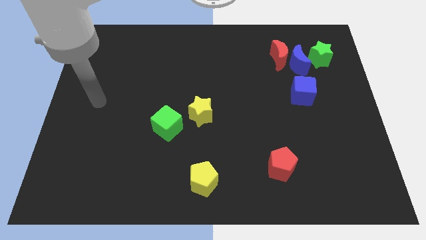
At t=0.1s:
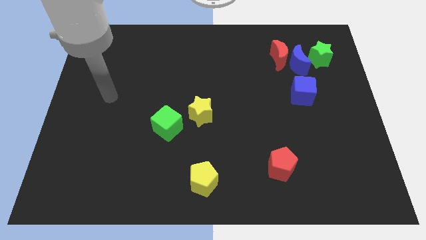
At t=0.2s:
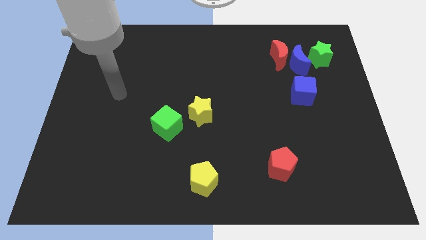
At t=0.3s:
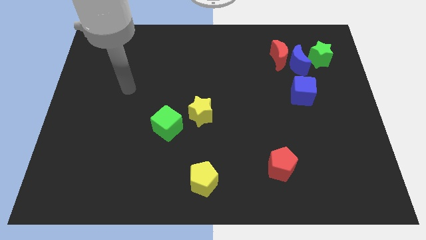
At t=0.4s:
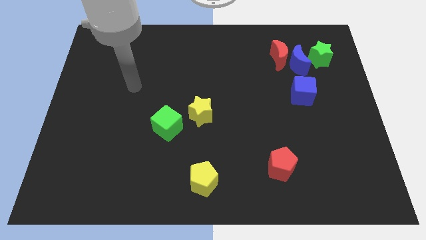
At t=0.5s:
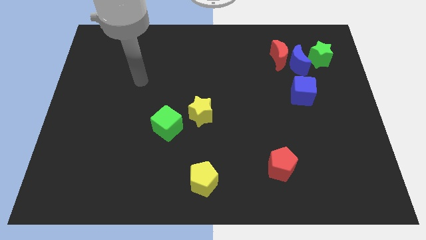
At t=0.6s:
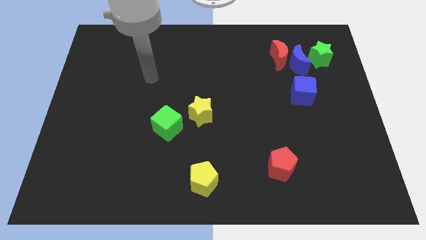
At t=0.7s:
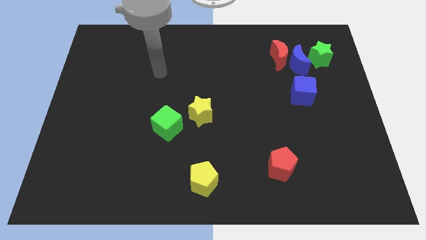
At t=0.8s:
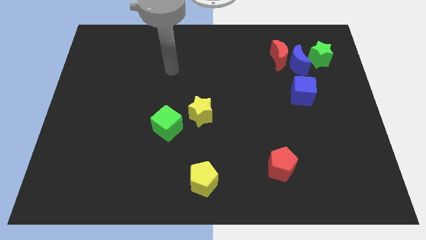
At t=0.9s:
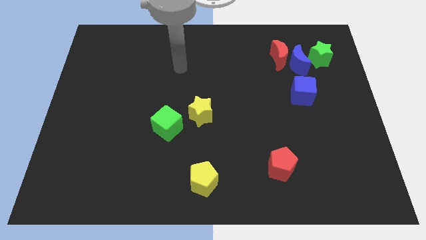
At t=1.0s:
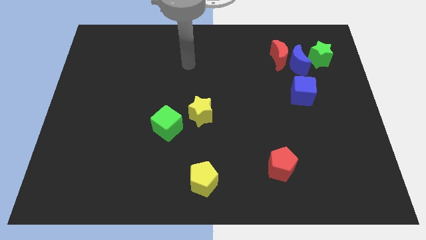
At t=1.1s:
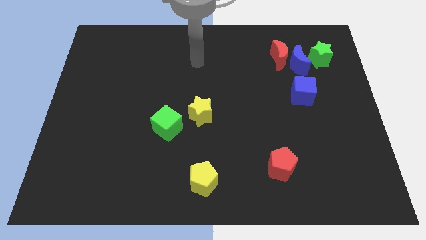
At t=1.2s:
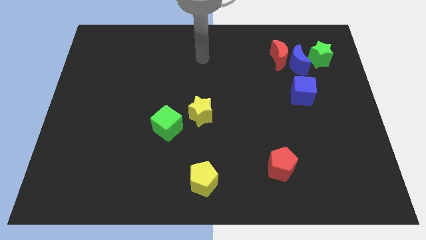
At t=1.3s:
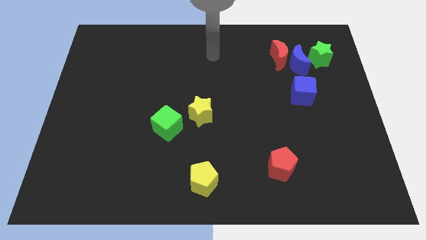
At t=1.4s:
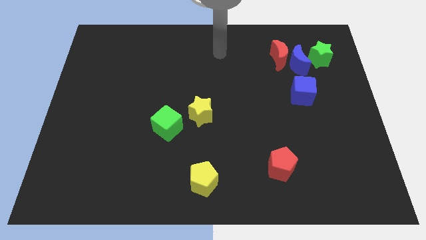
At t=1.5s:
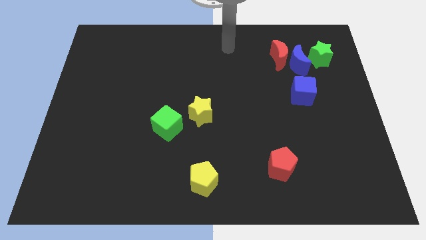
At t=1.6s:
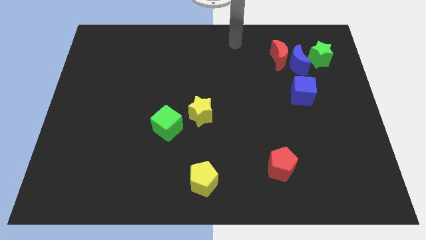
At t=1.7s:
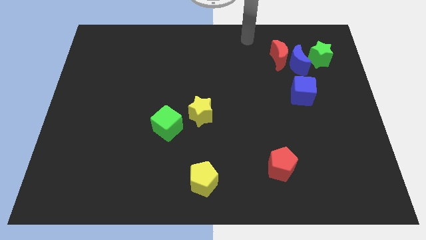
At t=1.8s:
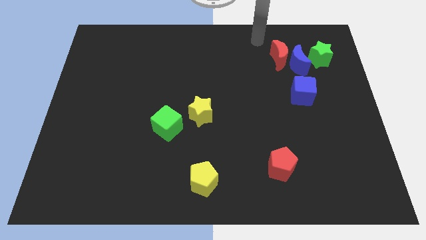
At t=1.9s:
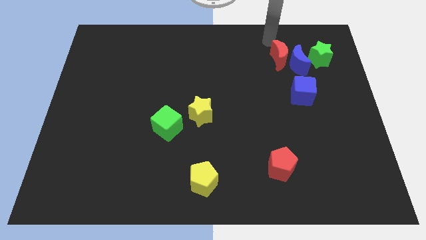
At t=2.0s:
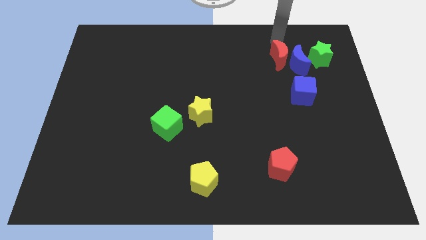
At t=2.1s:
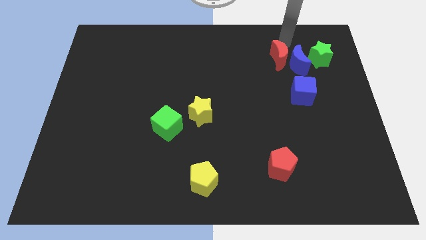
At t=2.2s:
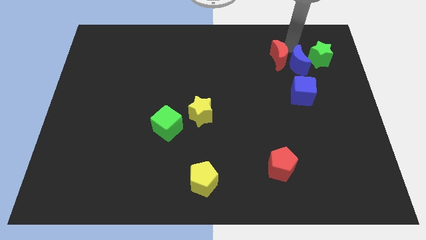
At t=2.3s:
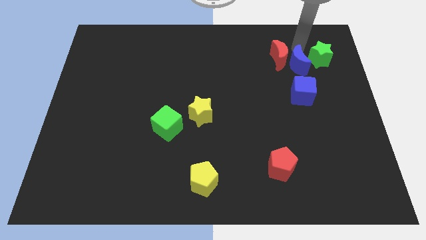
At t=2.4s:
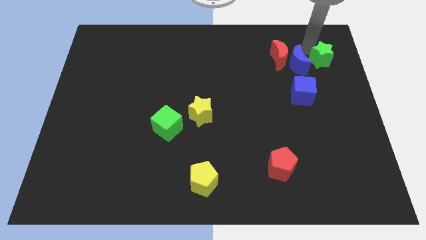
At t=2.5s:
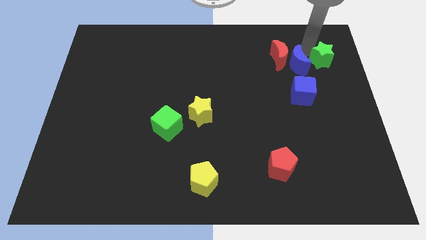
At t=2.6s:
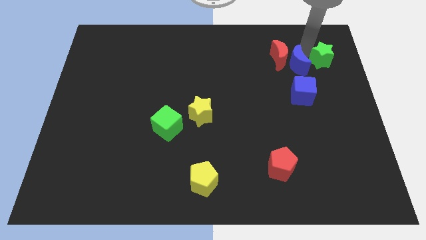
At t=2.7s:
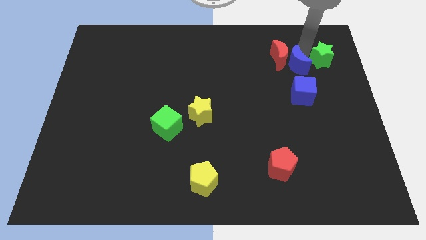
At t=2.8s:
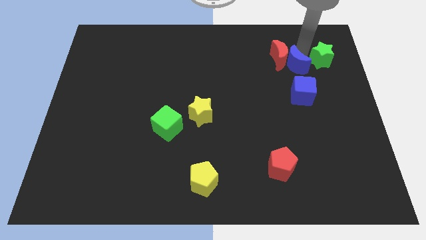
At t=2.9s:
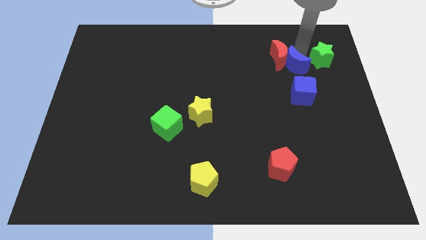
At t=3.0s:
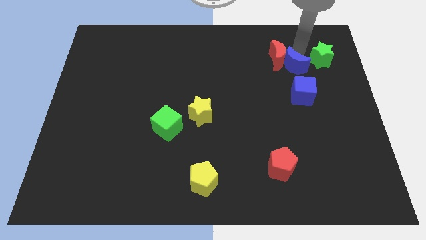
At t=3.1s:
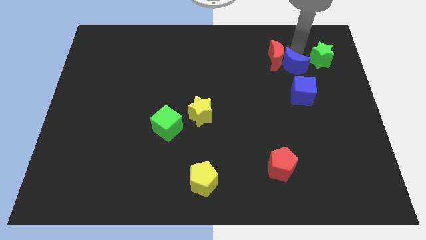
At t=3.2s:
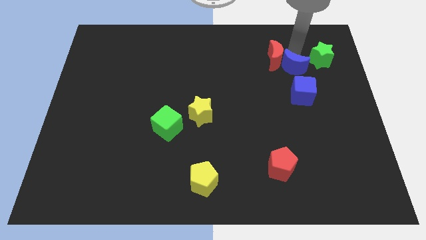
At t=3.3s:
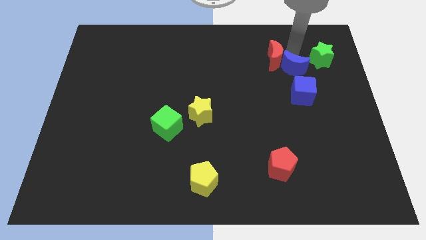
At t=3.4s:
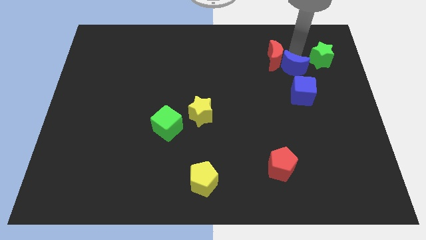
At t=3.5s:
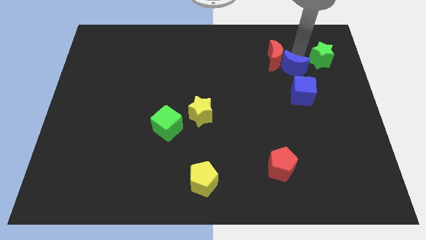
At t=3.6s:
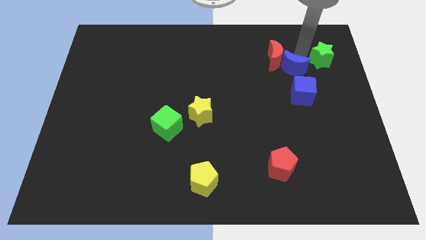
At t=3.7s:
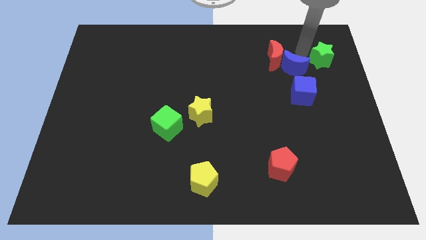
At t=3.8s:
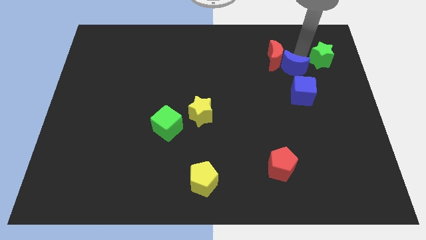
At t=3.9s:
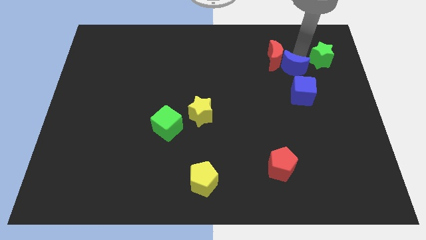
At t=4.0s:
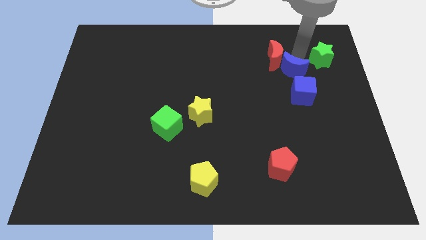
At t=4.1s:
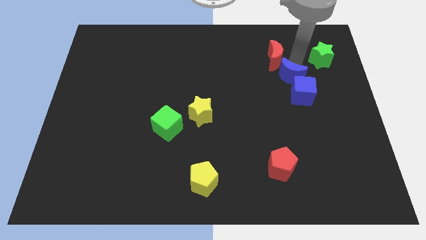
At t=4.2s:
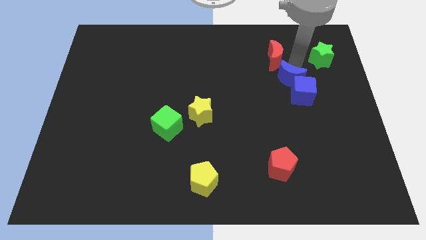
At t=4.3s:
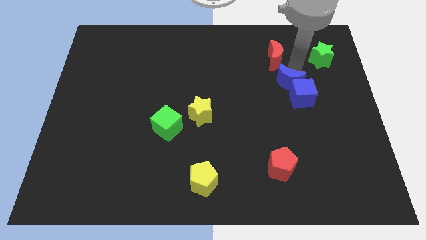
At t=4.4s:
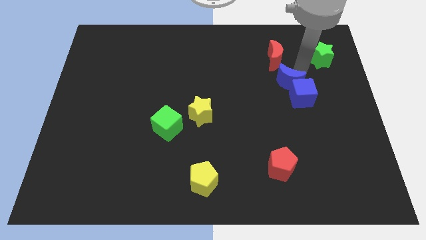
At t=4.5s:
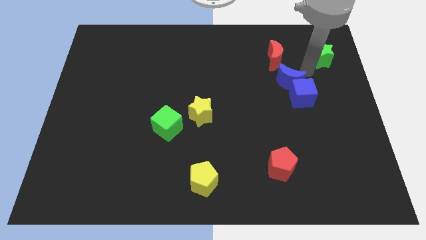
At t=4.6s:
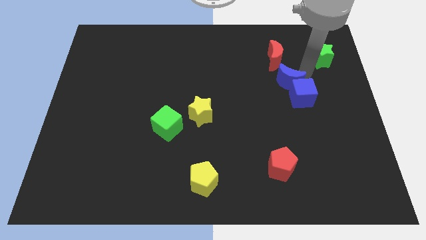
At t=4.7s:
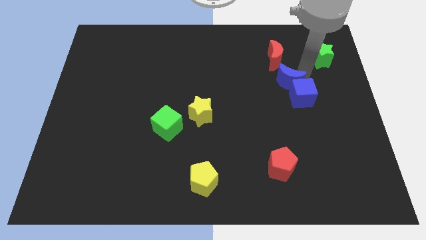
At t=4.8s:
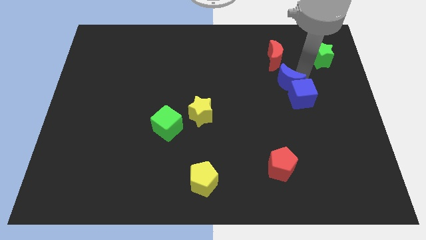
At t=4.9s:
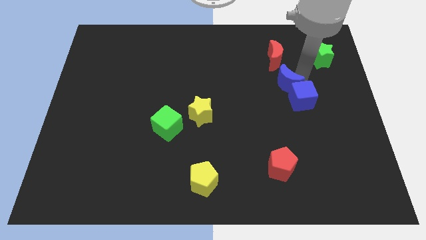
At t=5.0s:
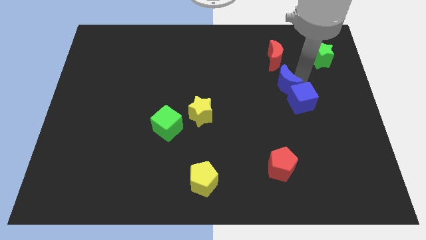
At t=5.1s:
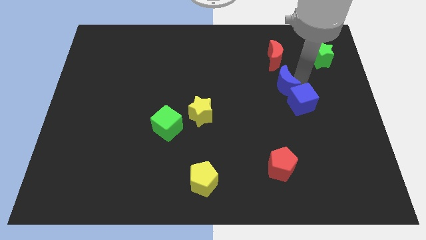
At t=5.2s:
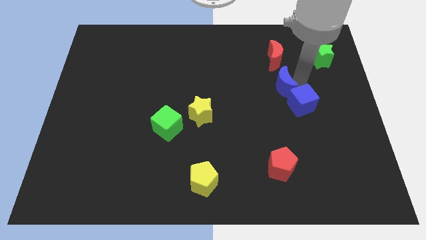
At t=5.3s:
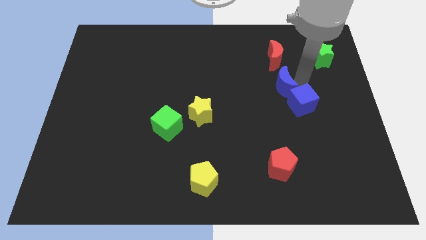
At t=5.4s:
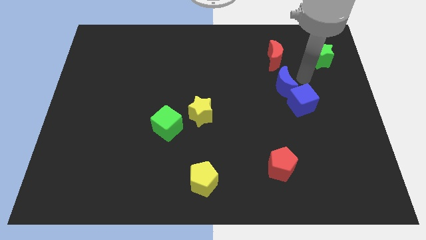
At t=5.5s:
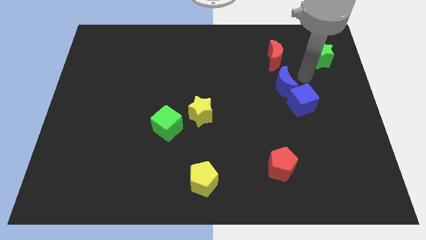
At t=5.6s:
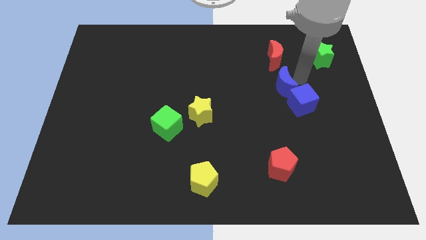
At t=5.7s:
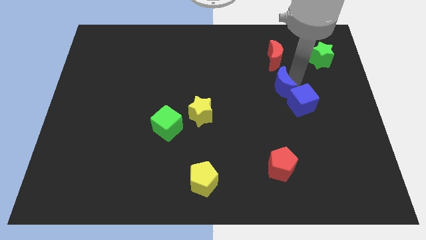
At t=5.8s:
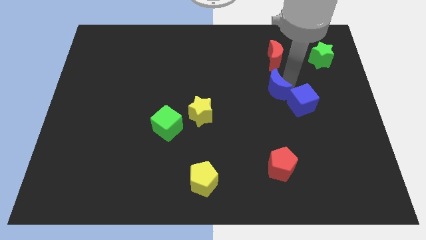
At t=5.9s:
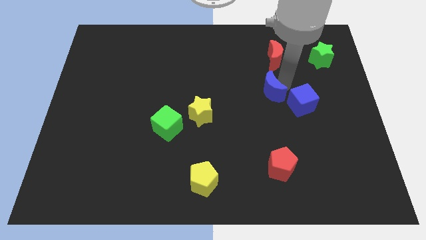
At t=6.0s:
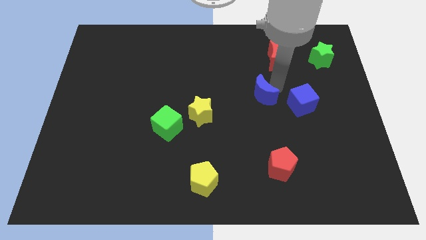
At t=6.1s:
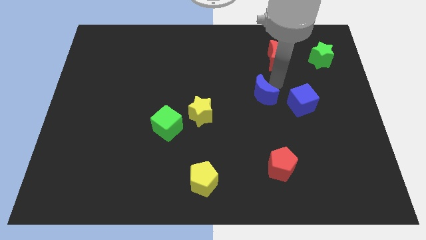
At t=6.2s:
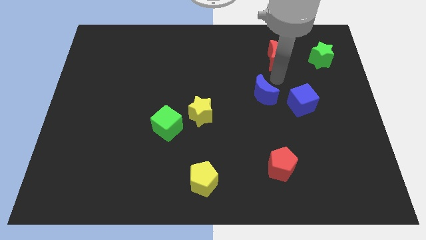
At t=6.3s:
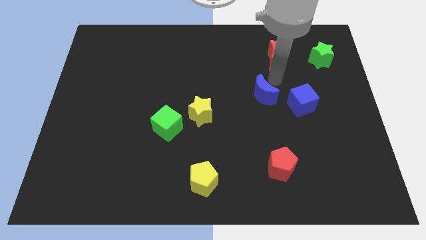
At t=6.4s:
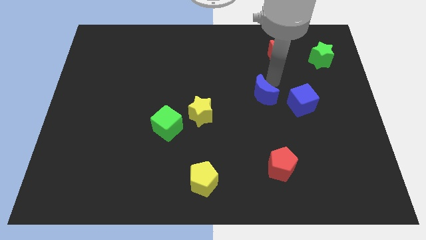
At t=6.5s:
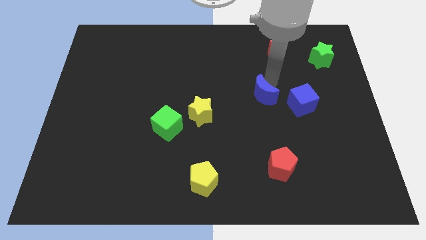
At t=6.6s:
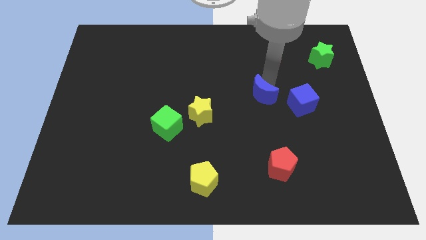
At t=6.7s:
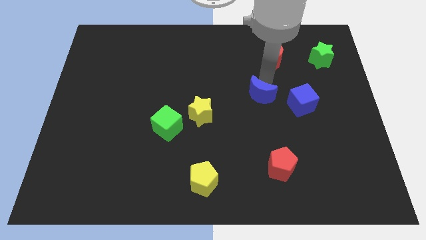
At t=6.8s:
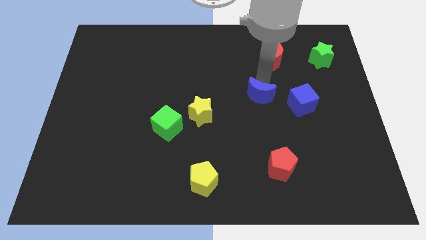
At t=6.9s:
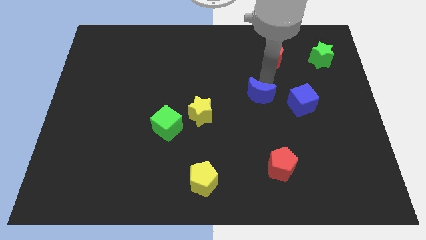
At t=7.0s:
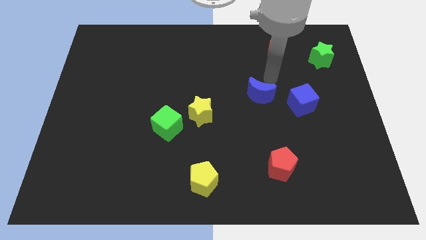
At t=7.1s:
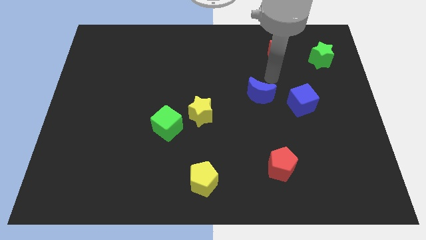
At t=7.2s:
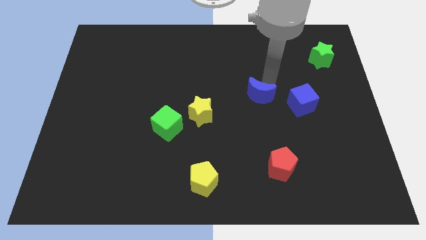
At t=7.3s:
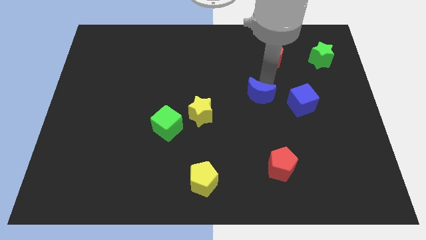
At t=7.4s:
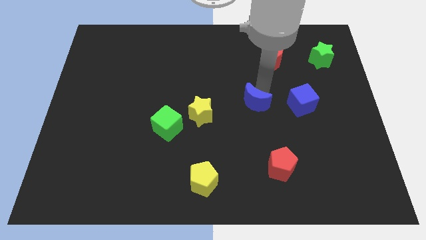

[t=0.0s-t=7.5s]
push the blue moon right of the yellow star
